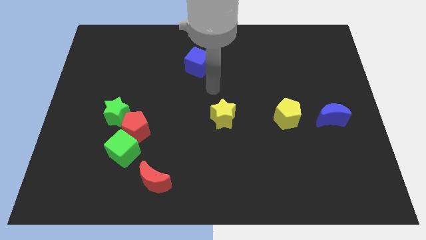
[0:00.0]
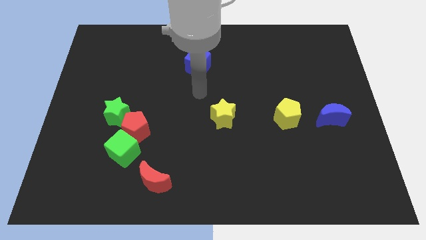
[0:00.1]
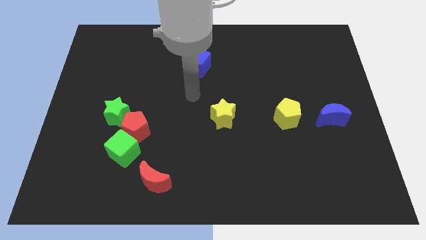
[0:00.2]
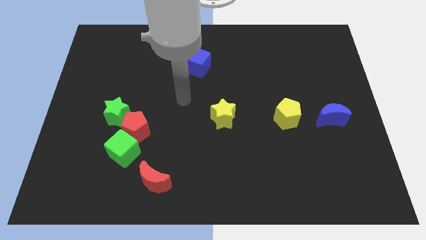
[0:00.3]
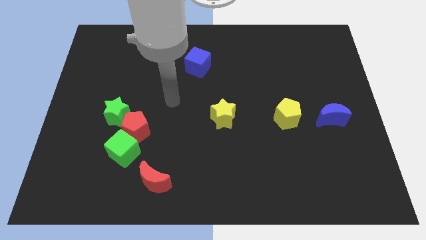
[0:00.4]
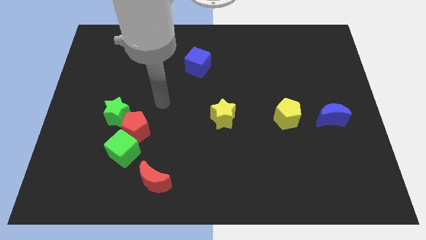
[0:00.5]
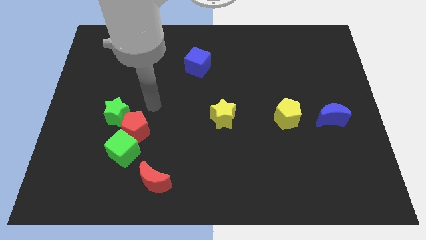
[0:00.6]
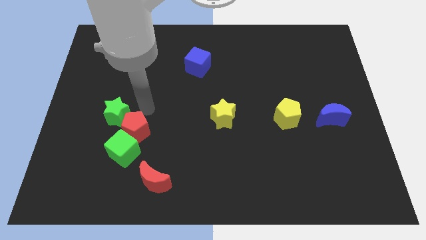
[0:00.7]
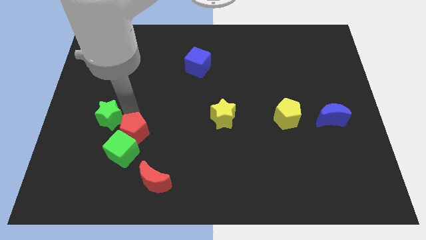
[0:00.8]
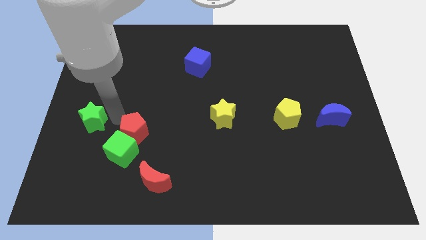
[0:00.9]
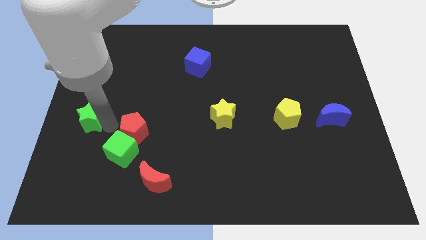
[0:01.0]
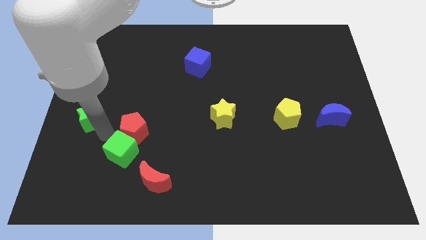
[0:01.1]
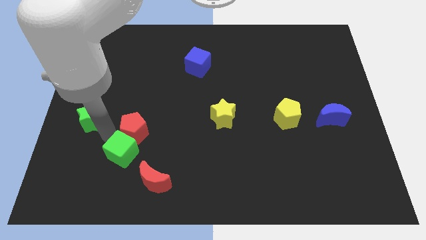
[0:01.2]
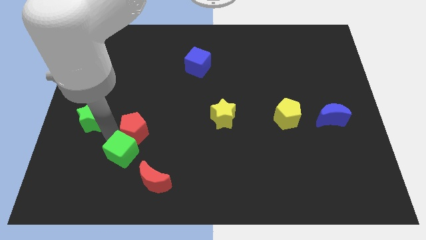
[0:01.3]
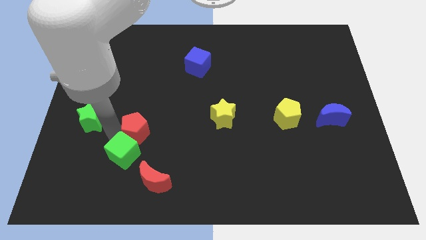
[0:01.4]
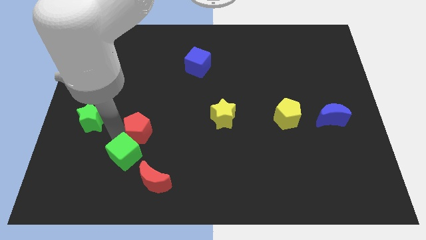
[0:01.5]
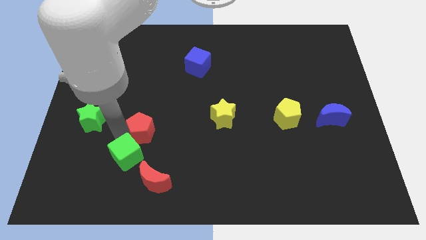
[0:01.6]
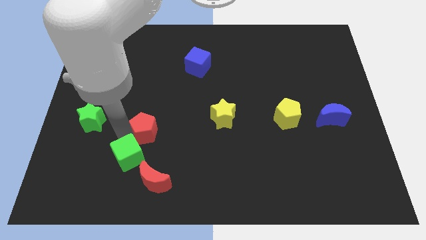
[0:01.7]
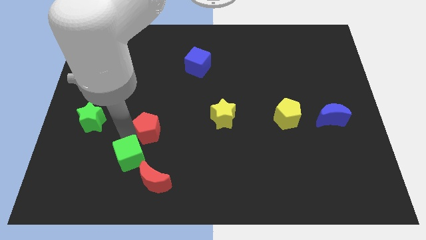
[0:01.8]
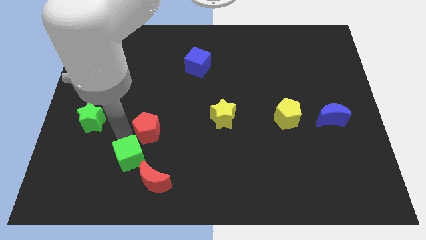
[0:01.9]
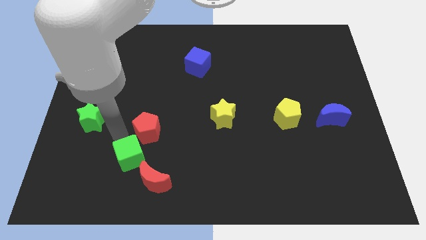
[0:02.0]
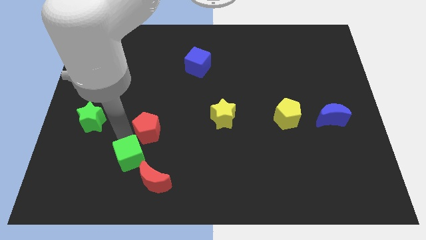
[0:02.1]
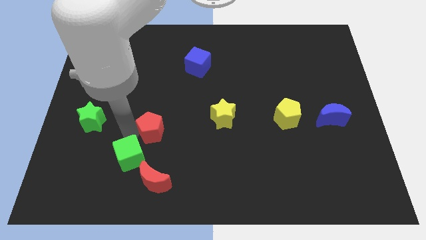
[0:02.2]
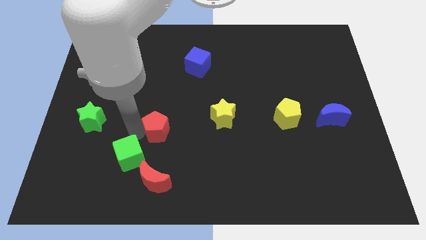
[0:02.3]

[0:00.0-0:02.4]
move the red pentagon away from the green cube and green star

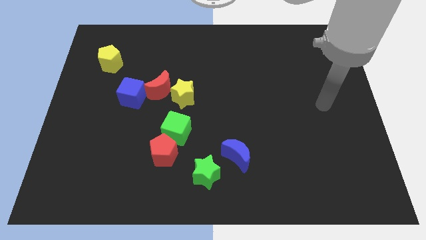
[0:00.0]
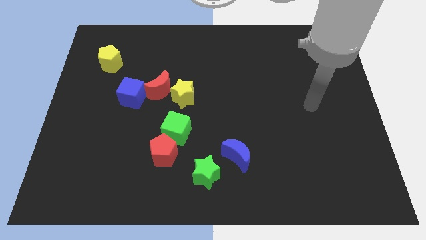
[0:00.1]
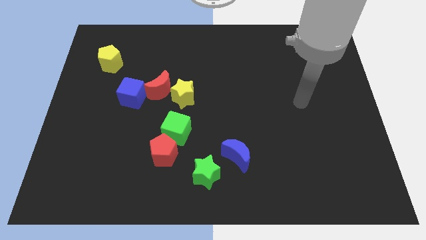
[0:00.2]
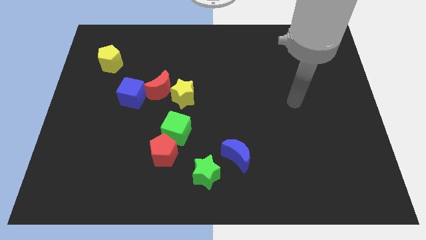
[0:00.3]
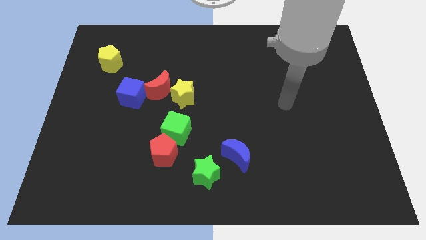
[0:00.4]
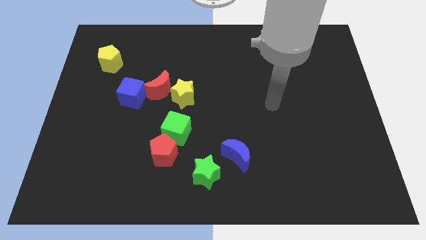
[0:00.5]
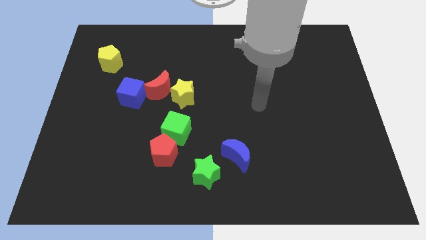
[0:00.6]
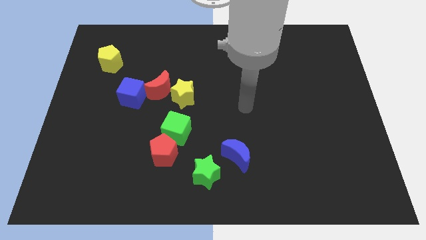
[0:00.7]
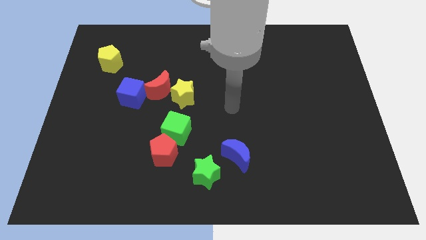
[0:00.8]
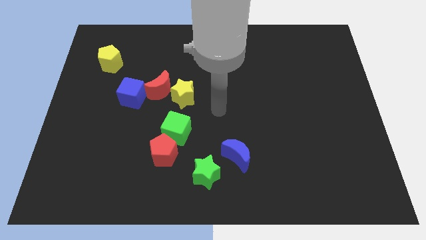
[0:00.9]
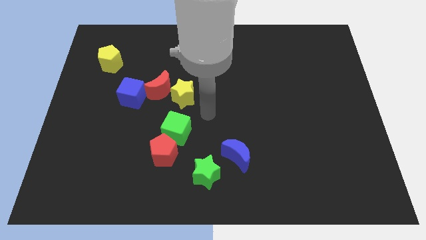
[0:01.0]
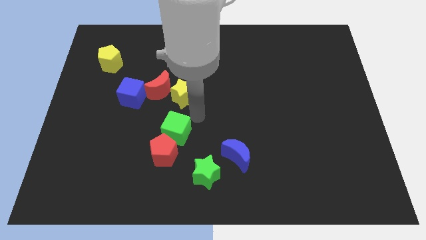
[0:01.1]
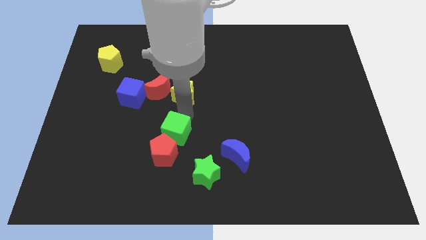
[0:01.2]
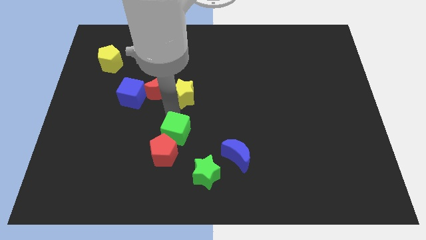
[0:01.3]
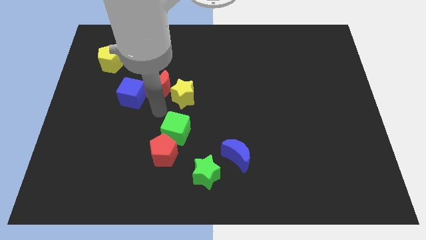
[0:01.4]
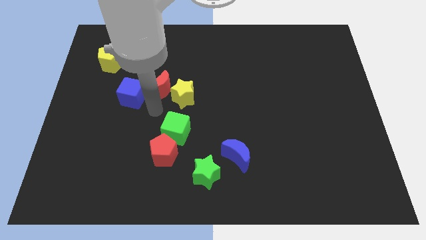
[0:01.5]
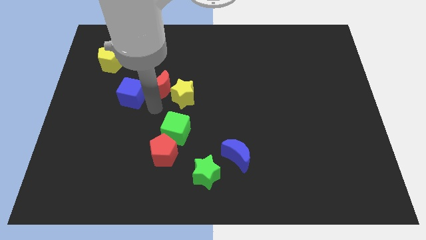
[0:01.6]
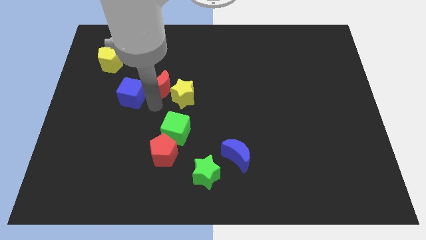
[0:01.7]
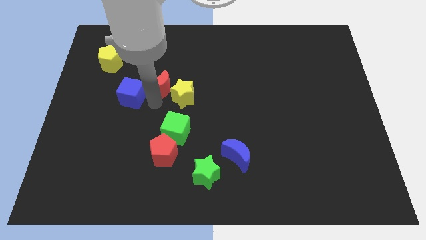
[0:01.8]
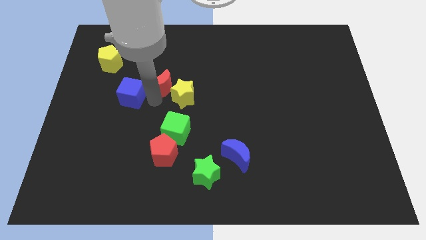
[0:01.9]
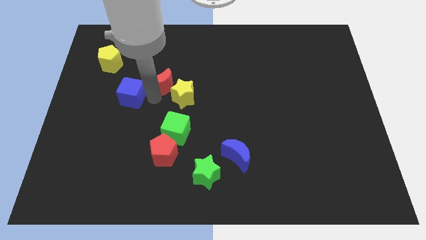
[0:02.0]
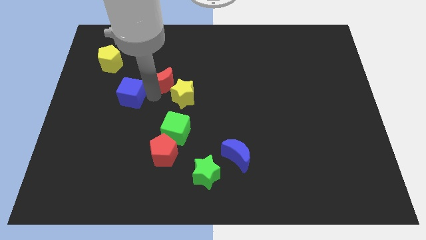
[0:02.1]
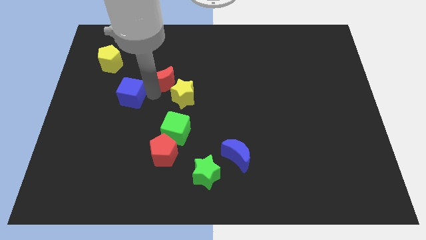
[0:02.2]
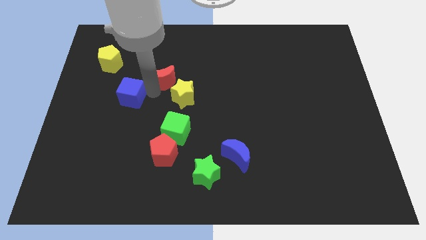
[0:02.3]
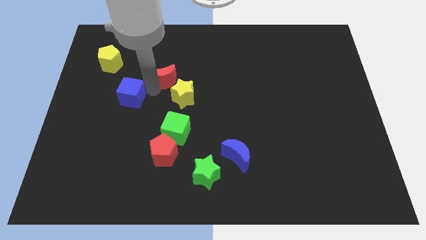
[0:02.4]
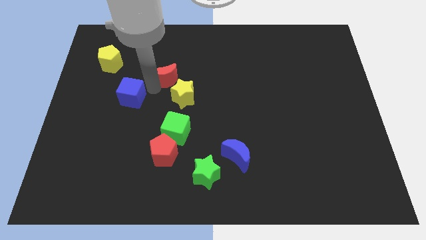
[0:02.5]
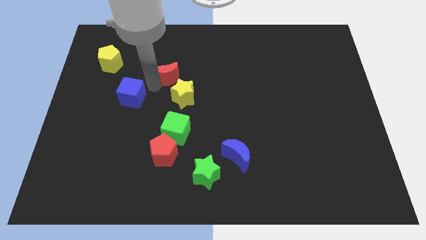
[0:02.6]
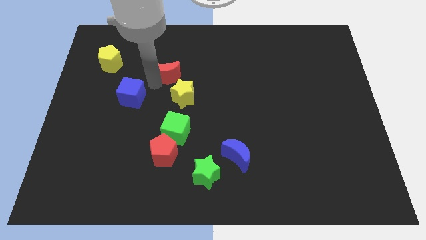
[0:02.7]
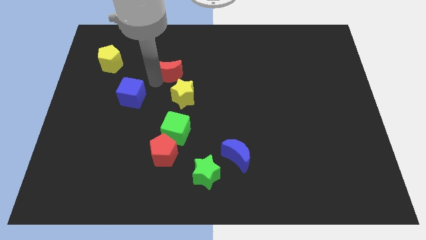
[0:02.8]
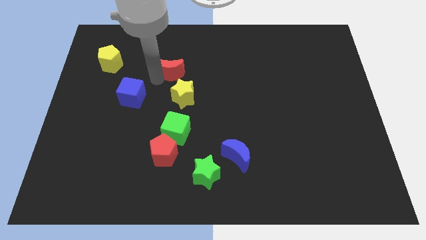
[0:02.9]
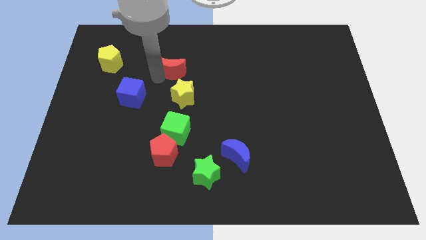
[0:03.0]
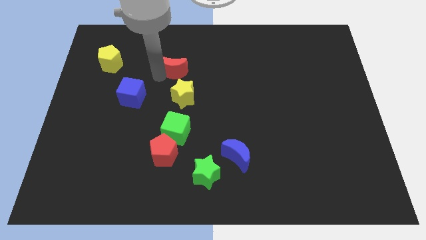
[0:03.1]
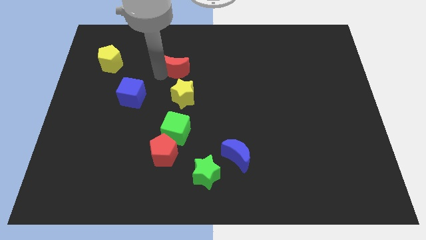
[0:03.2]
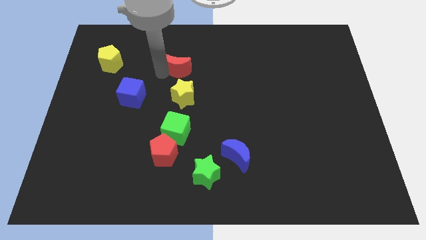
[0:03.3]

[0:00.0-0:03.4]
pull the red moon apart from the yellow star and blue cube

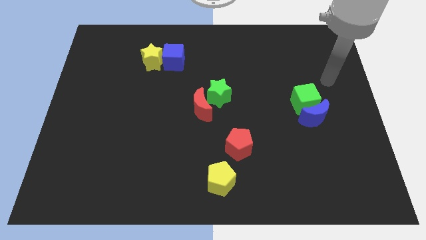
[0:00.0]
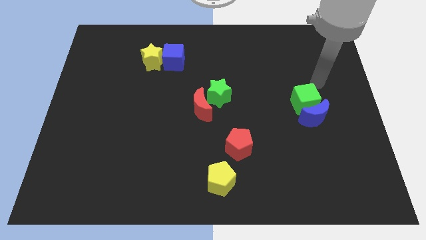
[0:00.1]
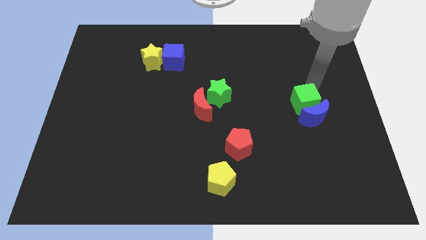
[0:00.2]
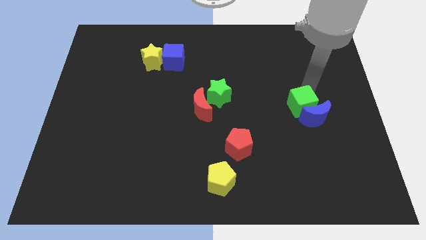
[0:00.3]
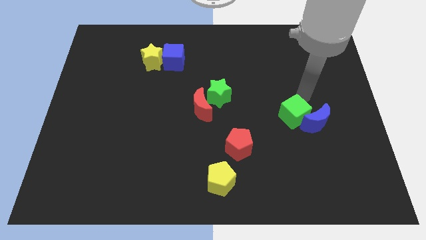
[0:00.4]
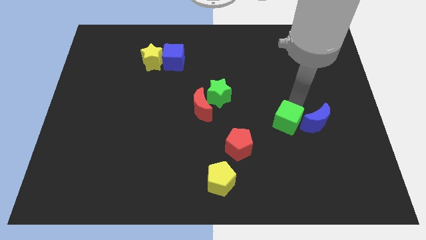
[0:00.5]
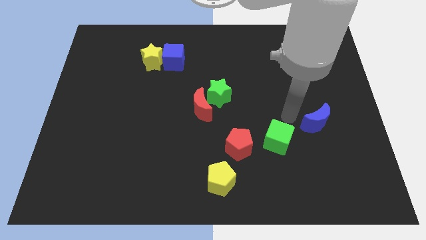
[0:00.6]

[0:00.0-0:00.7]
separate the blue moon from the green cube

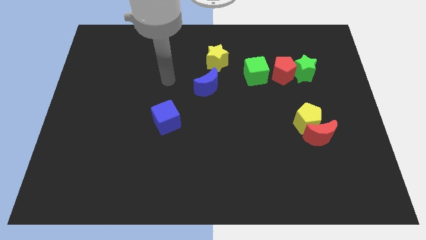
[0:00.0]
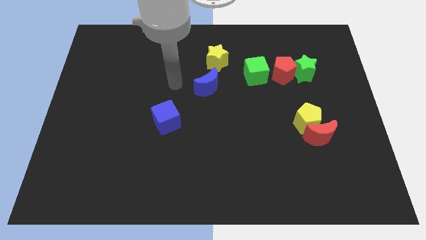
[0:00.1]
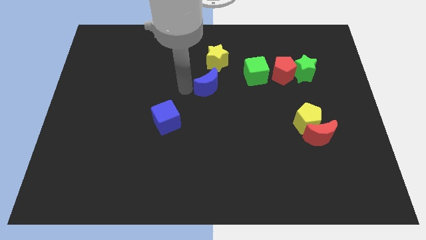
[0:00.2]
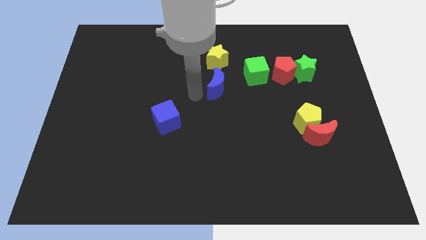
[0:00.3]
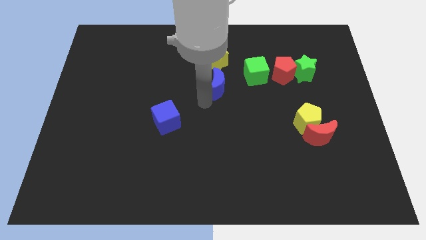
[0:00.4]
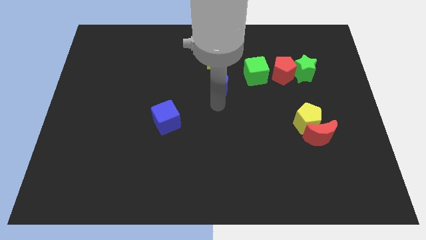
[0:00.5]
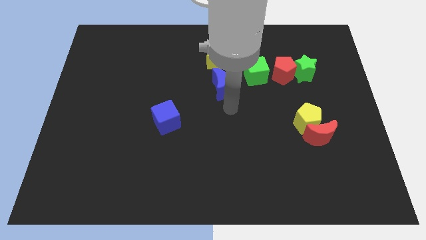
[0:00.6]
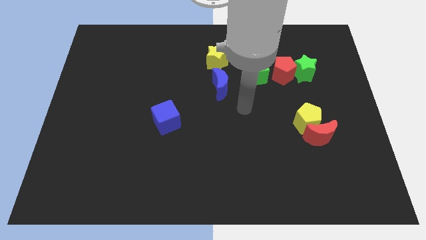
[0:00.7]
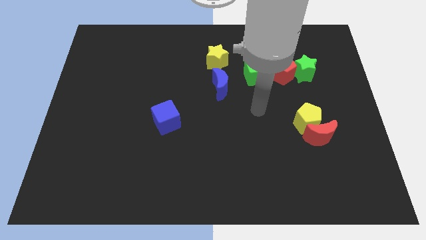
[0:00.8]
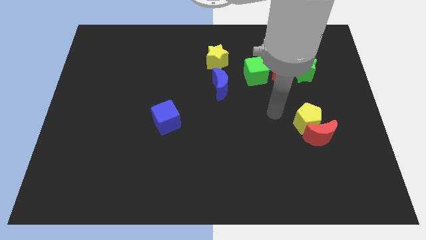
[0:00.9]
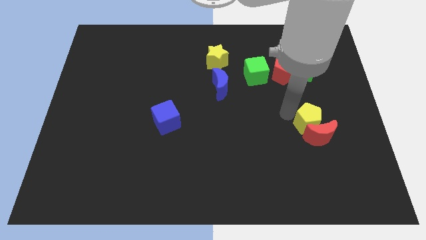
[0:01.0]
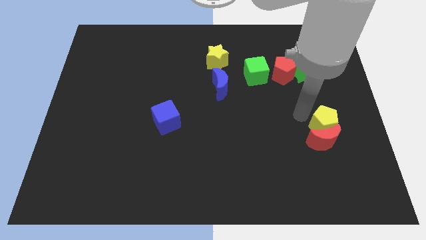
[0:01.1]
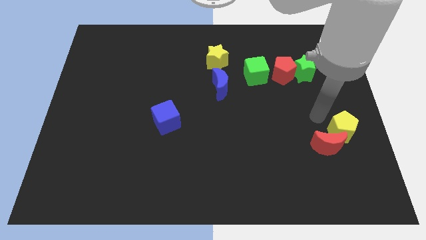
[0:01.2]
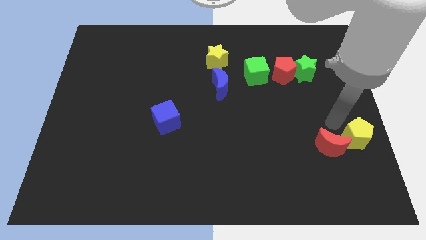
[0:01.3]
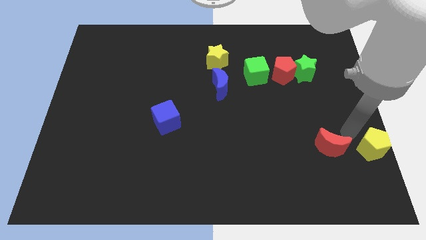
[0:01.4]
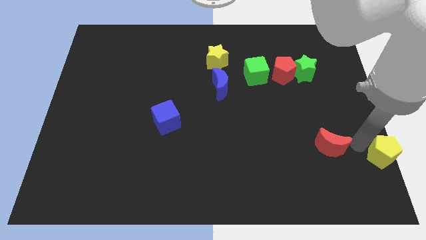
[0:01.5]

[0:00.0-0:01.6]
move the red moon away from the yellow pentagon

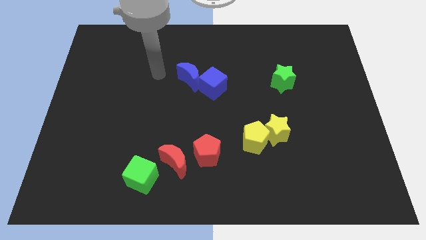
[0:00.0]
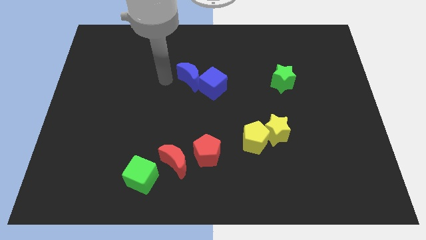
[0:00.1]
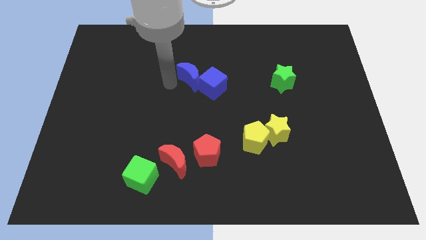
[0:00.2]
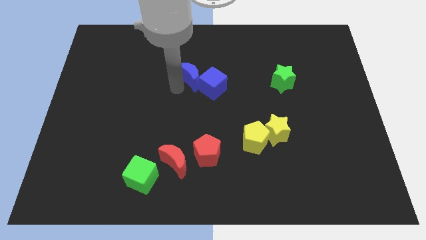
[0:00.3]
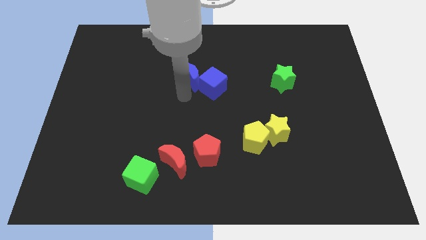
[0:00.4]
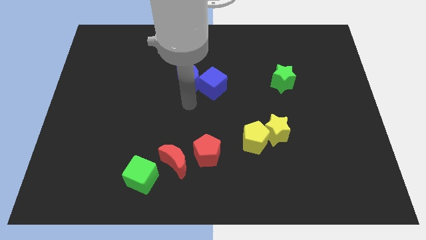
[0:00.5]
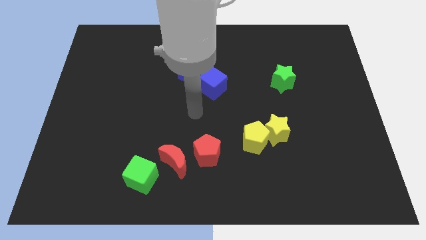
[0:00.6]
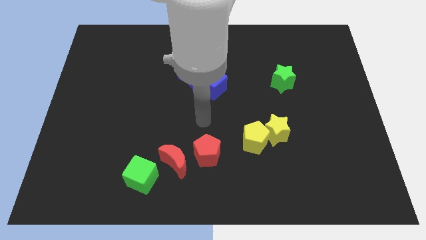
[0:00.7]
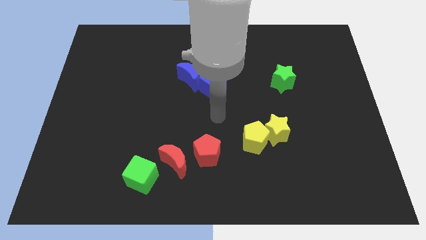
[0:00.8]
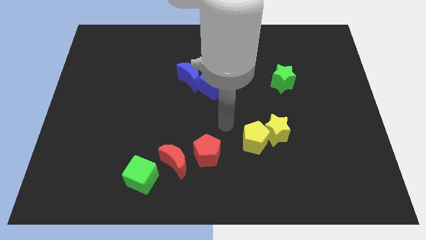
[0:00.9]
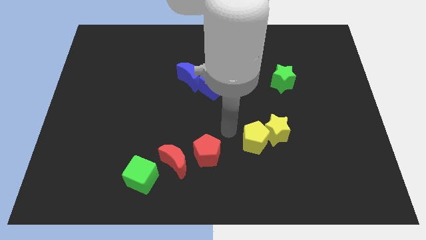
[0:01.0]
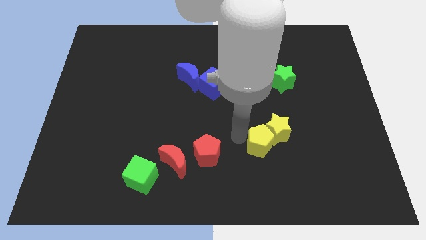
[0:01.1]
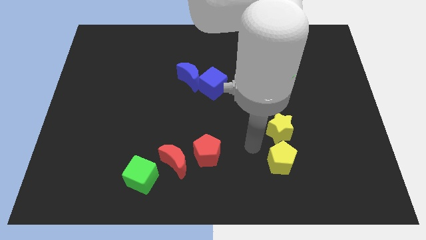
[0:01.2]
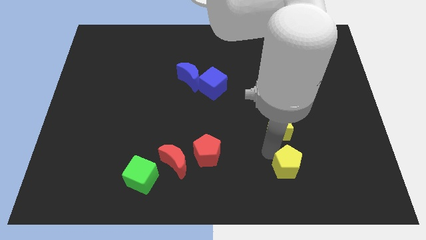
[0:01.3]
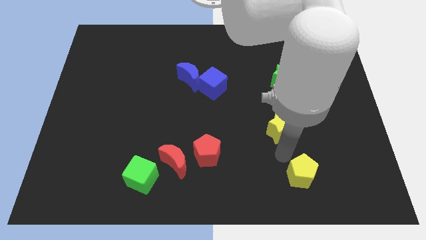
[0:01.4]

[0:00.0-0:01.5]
move the yellow star away from the yellow pentagon
